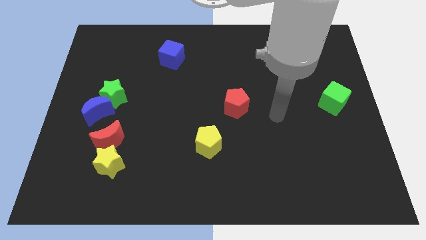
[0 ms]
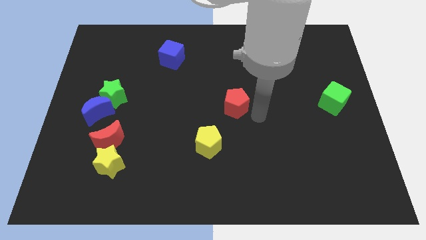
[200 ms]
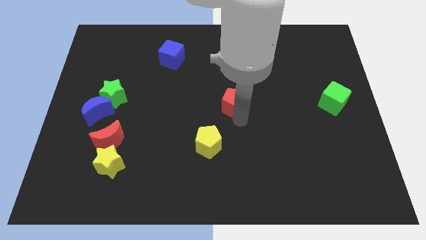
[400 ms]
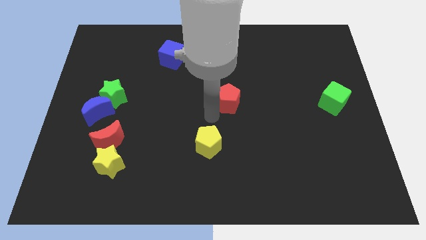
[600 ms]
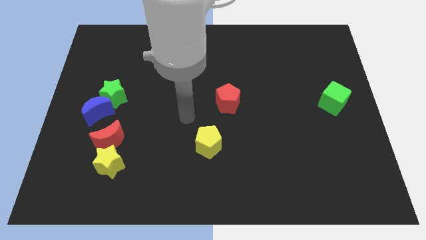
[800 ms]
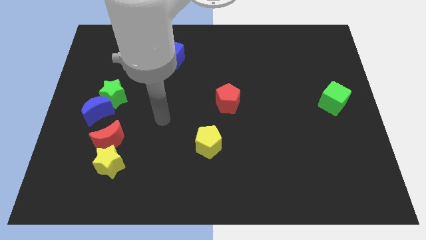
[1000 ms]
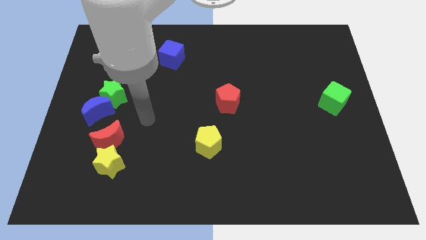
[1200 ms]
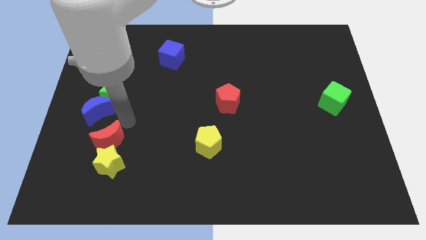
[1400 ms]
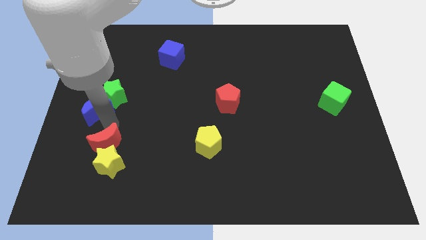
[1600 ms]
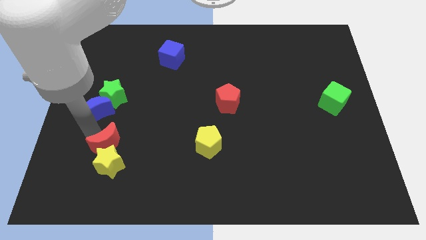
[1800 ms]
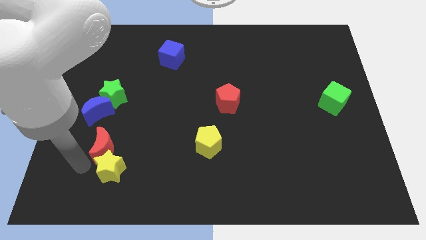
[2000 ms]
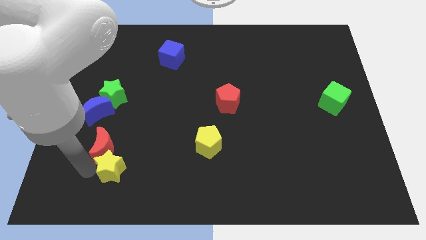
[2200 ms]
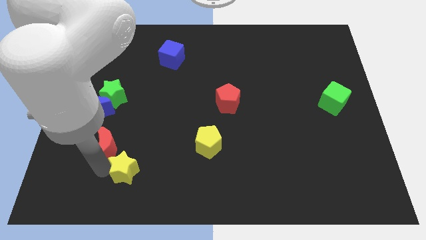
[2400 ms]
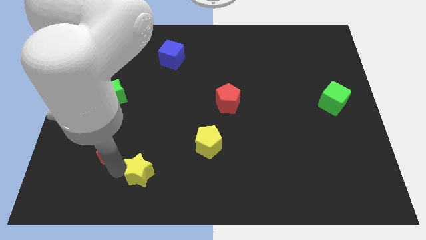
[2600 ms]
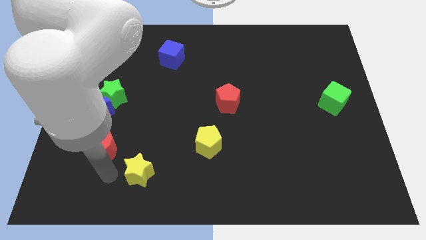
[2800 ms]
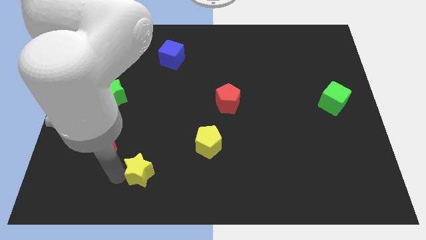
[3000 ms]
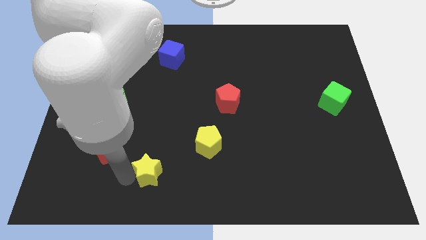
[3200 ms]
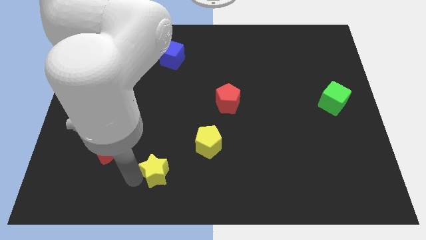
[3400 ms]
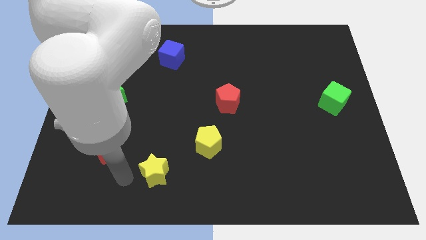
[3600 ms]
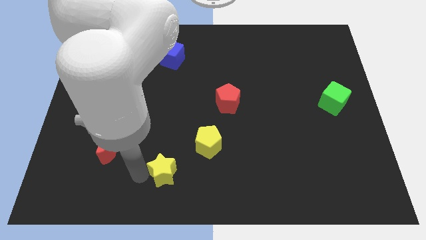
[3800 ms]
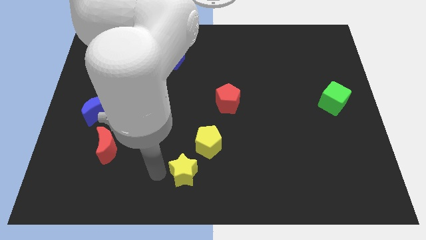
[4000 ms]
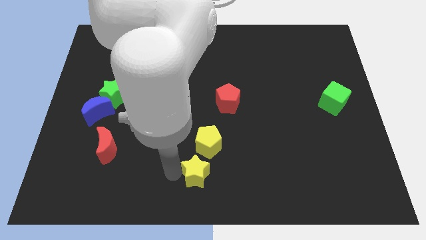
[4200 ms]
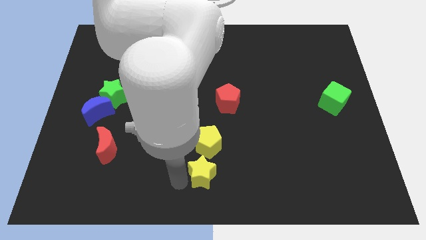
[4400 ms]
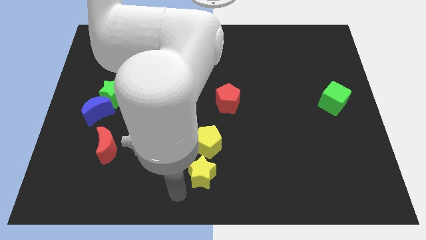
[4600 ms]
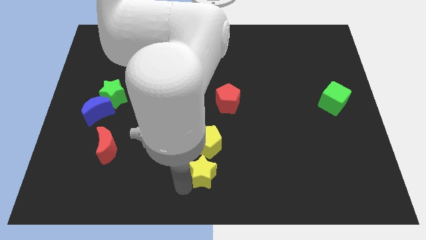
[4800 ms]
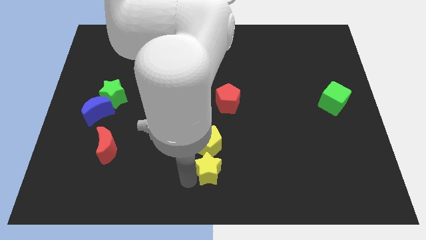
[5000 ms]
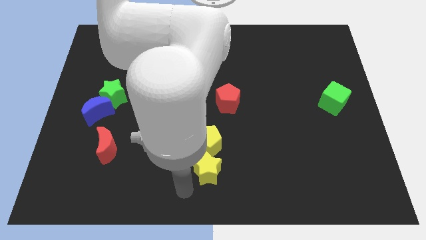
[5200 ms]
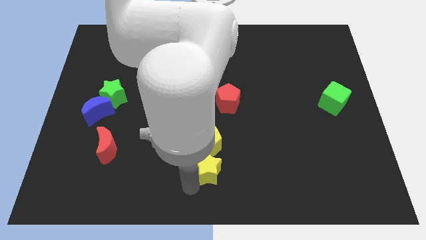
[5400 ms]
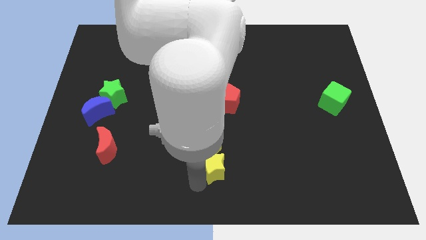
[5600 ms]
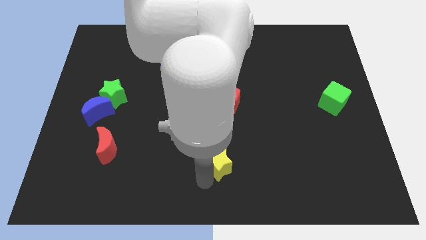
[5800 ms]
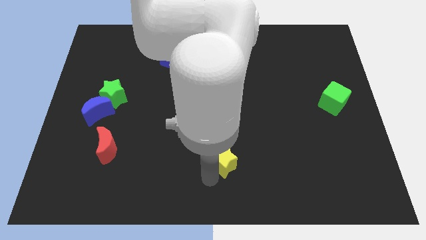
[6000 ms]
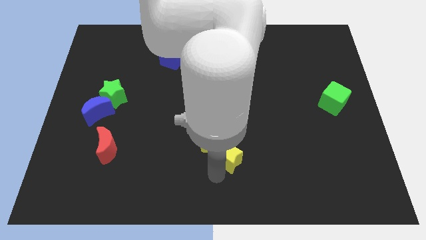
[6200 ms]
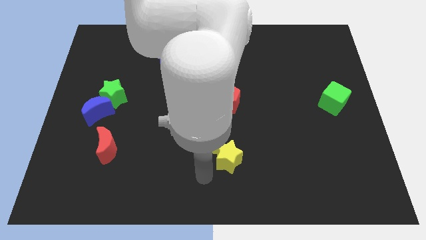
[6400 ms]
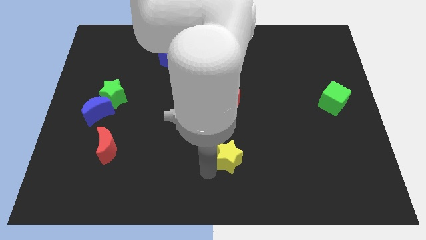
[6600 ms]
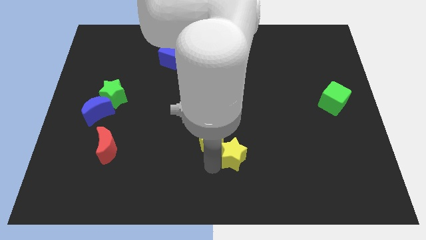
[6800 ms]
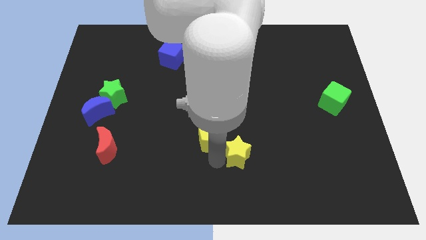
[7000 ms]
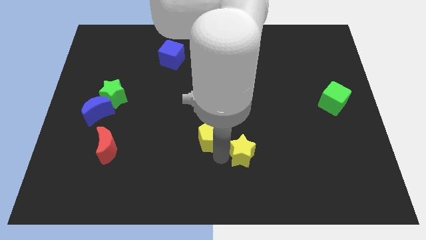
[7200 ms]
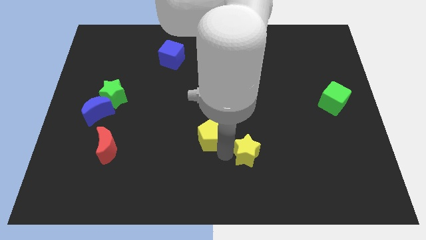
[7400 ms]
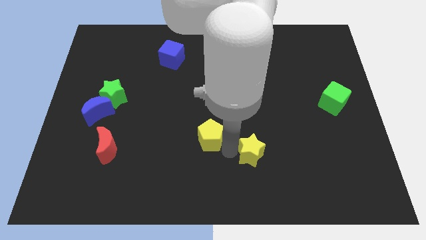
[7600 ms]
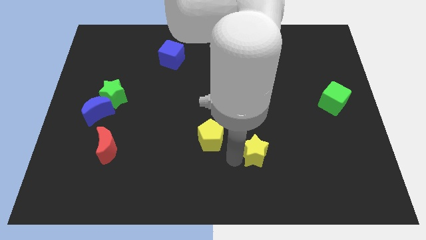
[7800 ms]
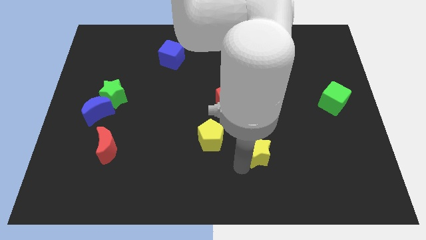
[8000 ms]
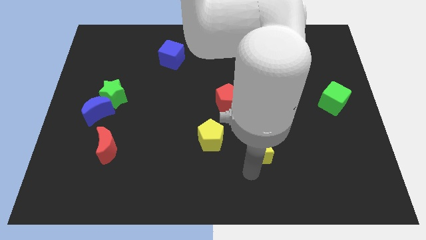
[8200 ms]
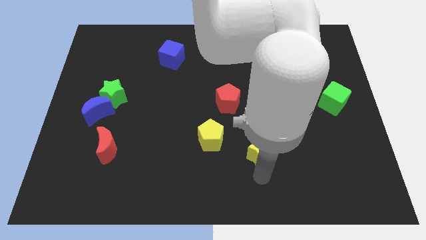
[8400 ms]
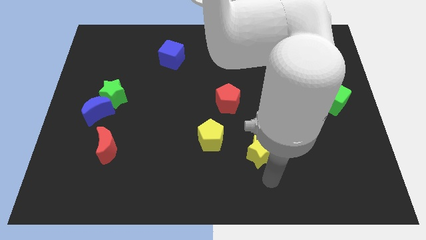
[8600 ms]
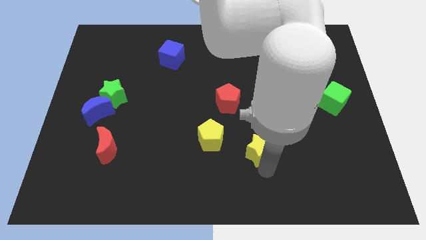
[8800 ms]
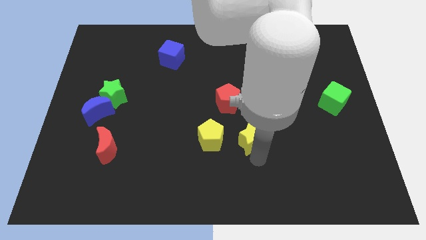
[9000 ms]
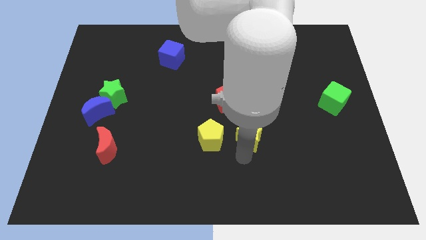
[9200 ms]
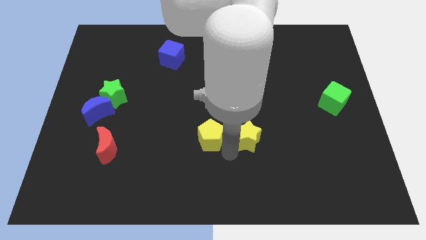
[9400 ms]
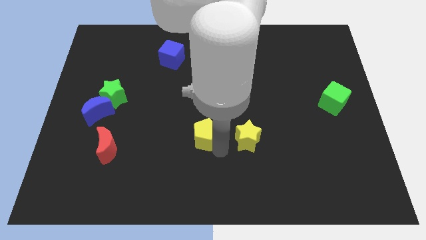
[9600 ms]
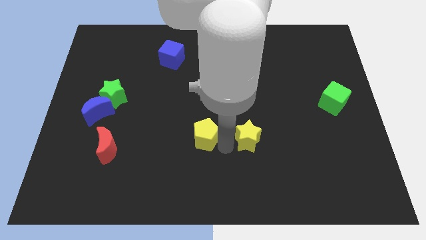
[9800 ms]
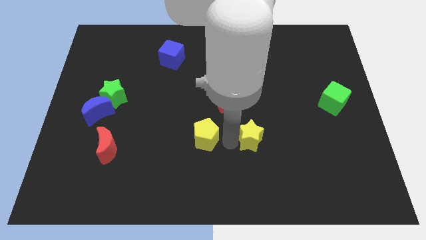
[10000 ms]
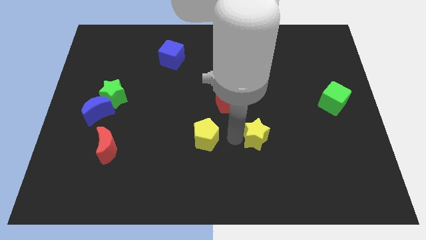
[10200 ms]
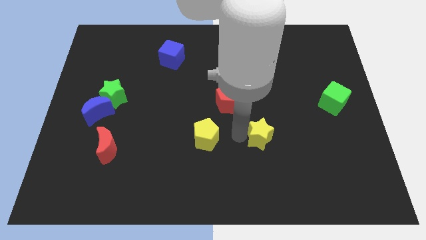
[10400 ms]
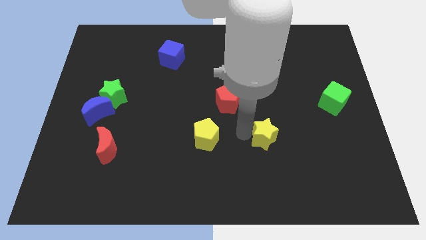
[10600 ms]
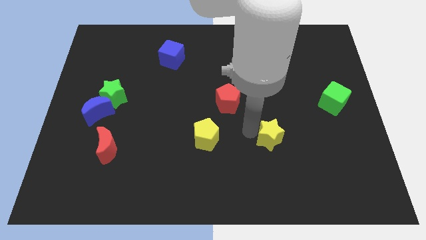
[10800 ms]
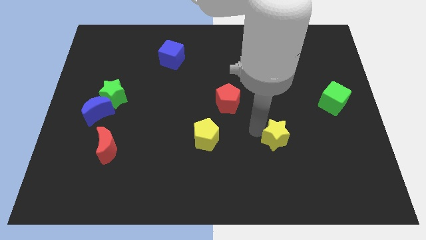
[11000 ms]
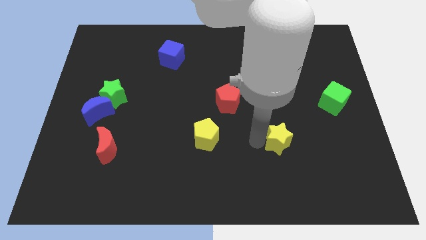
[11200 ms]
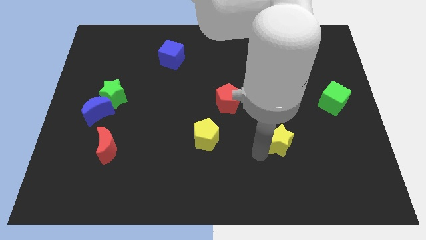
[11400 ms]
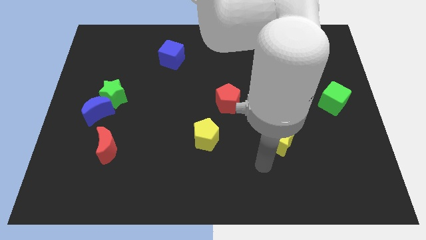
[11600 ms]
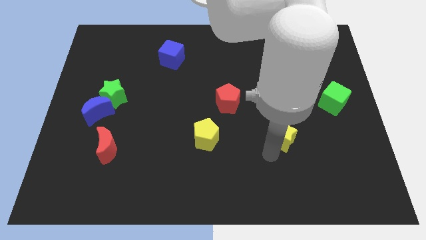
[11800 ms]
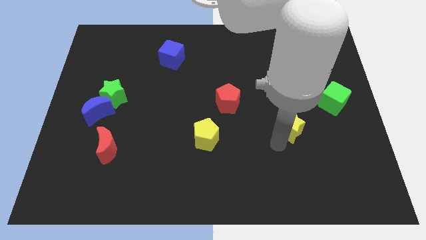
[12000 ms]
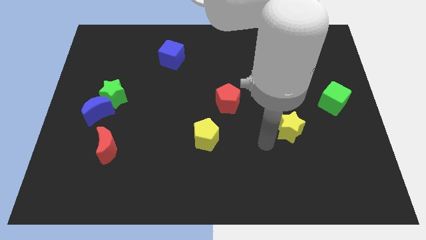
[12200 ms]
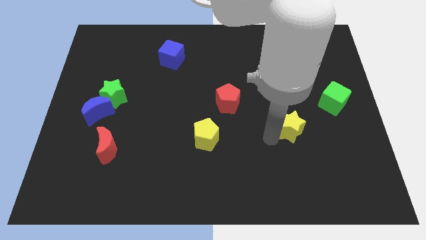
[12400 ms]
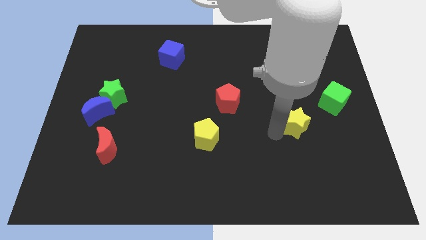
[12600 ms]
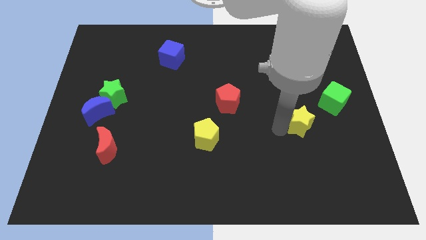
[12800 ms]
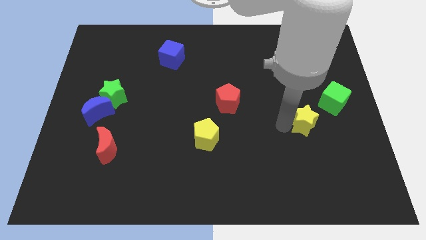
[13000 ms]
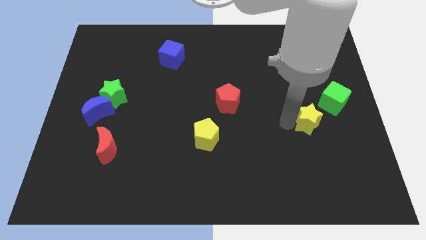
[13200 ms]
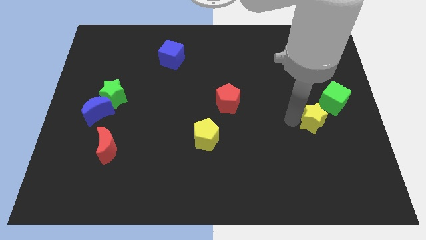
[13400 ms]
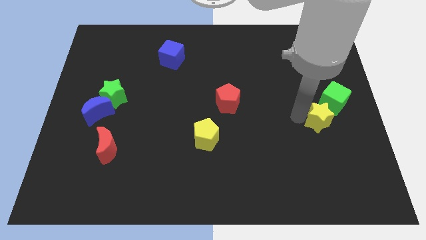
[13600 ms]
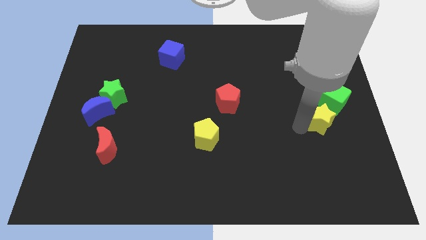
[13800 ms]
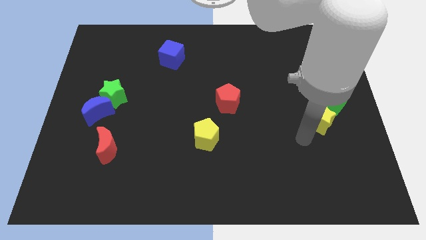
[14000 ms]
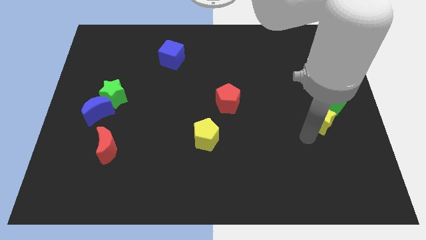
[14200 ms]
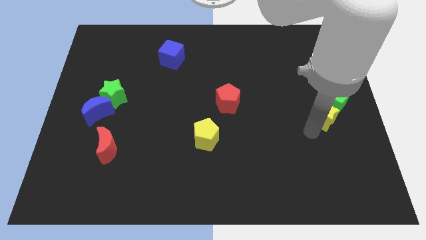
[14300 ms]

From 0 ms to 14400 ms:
slide the yellow star to the green cube
